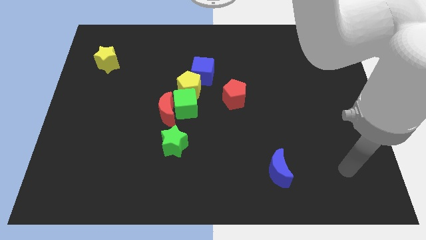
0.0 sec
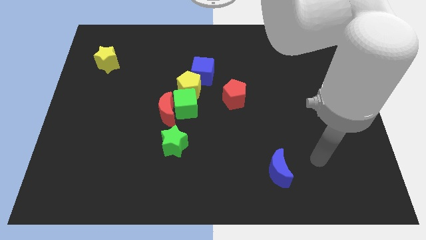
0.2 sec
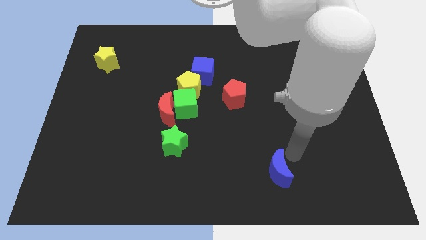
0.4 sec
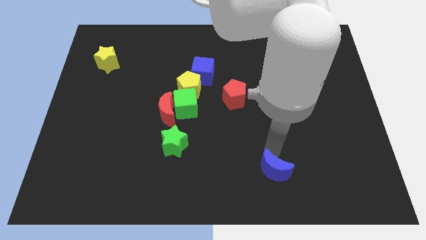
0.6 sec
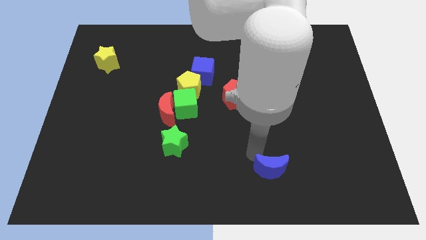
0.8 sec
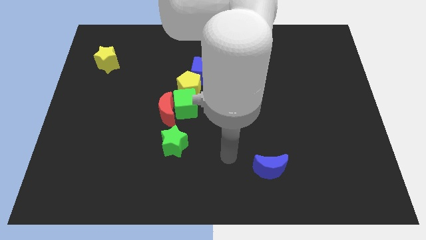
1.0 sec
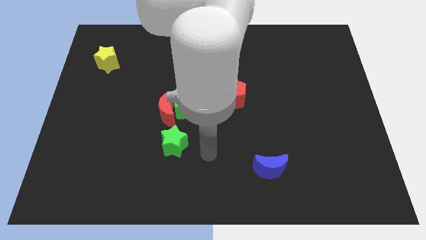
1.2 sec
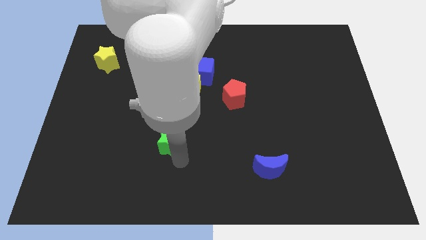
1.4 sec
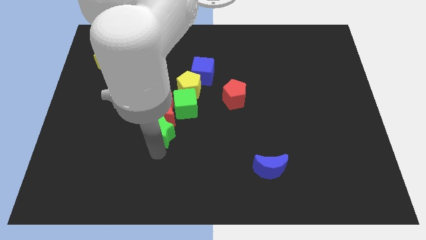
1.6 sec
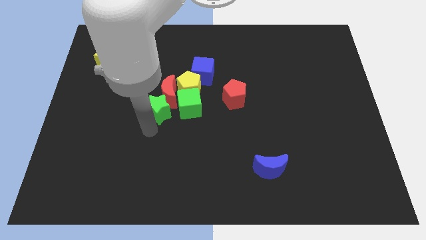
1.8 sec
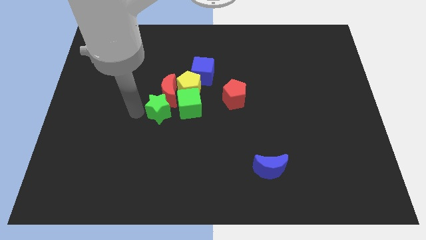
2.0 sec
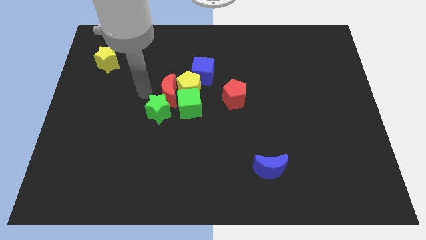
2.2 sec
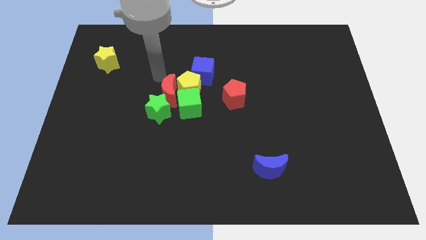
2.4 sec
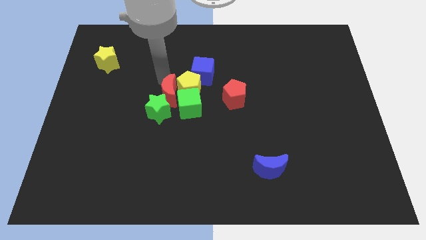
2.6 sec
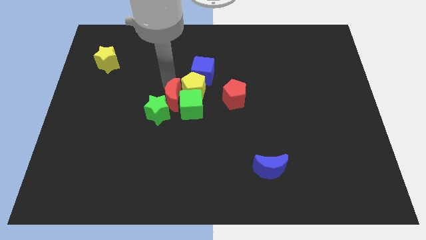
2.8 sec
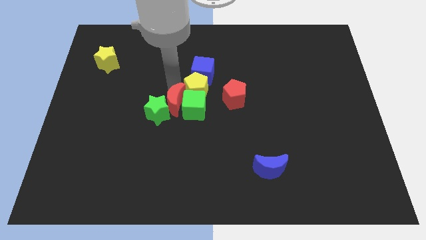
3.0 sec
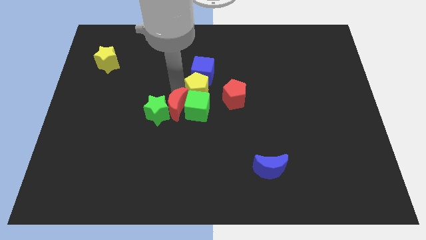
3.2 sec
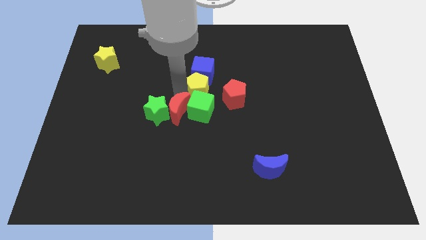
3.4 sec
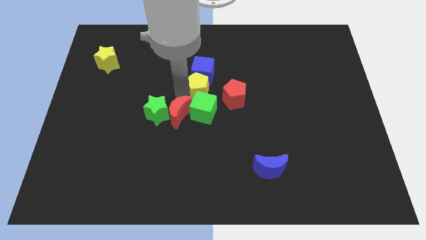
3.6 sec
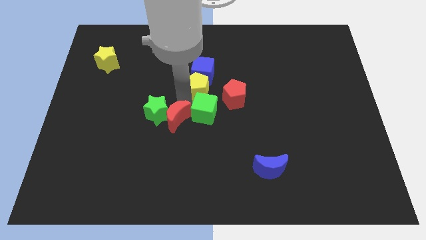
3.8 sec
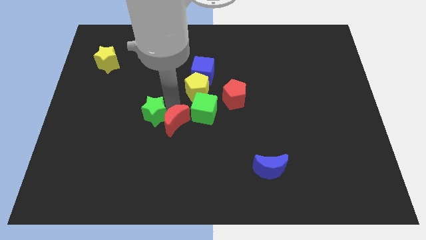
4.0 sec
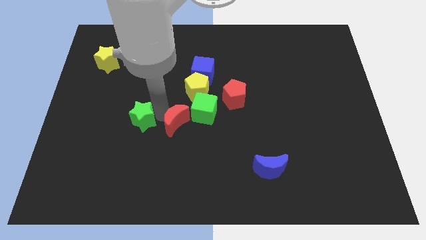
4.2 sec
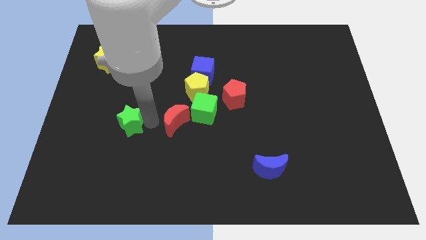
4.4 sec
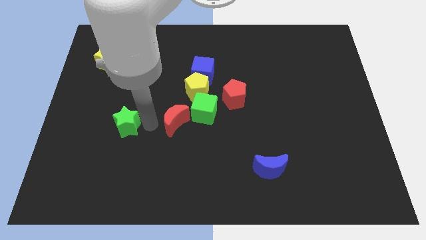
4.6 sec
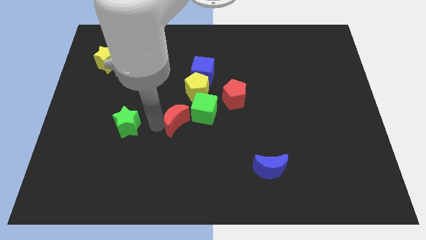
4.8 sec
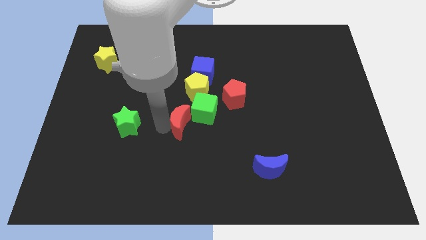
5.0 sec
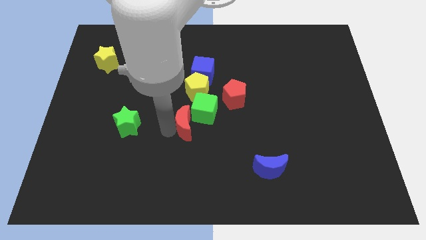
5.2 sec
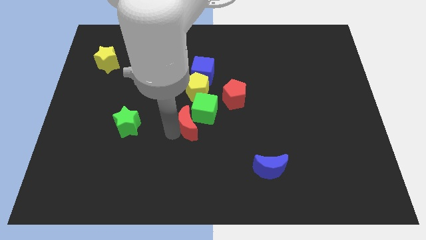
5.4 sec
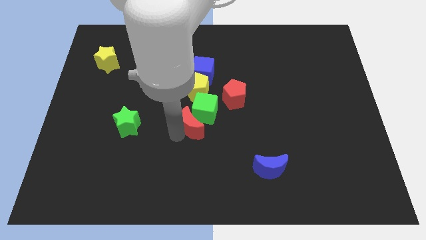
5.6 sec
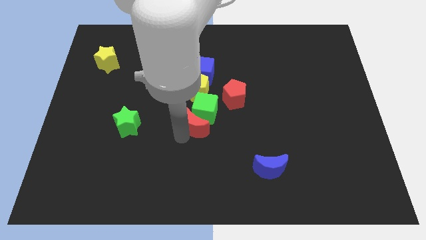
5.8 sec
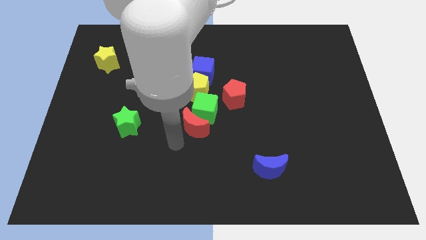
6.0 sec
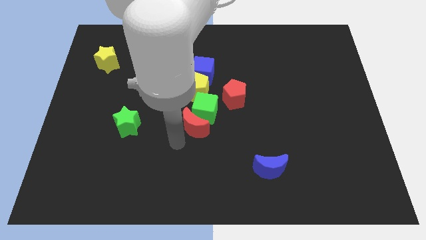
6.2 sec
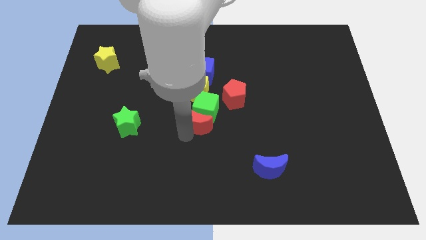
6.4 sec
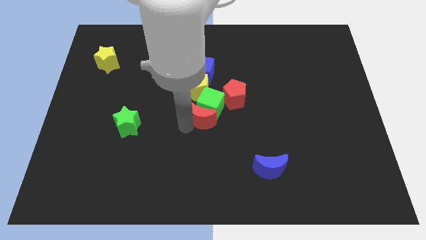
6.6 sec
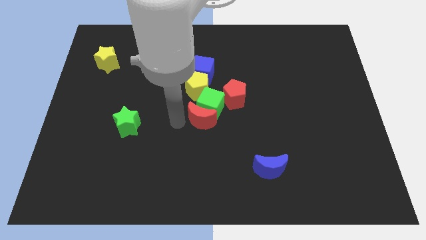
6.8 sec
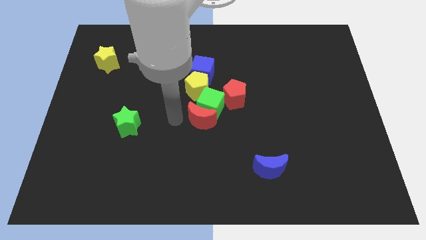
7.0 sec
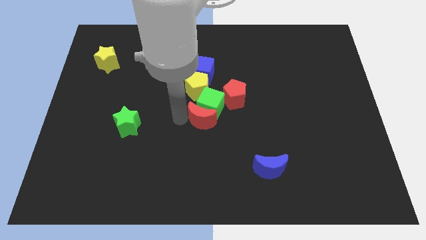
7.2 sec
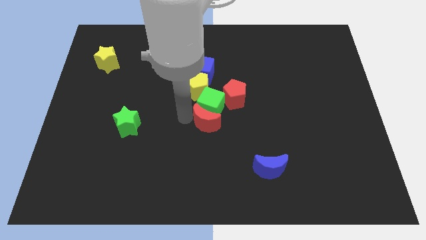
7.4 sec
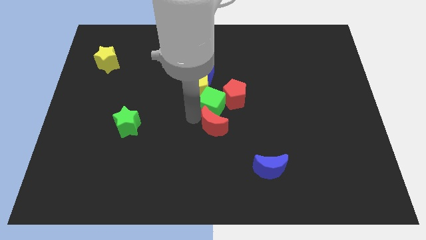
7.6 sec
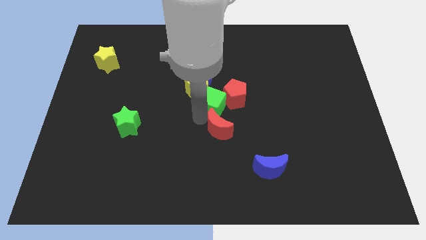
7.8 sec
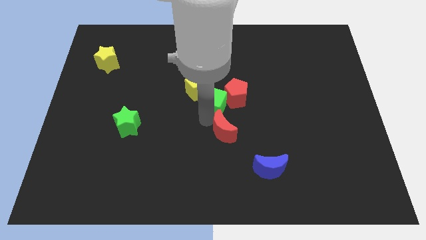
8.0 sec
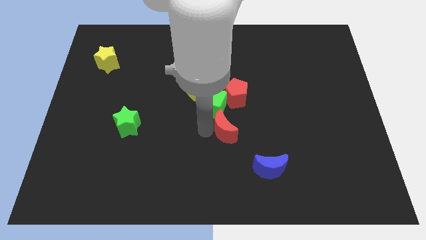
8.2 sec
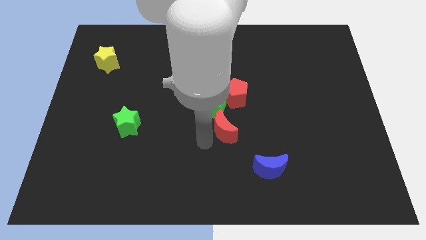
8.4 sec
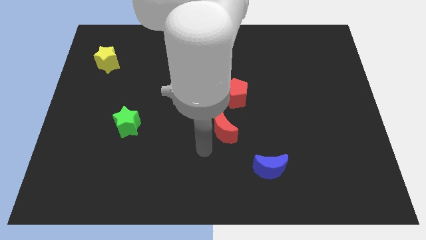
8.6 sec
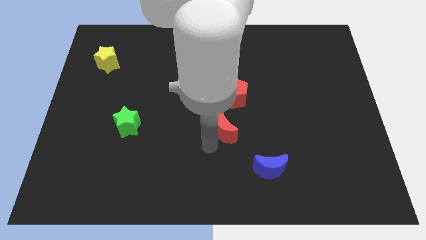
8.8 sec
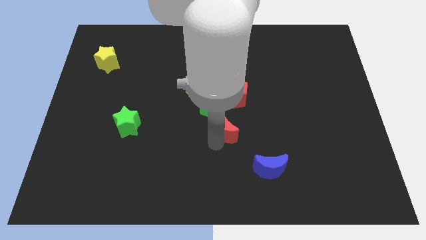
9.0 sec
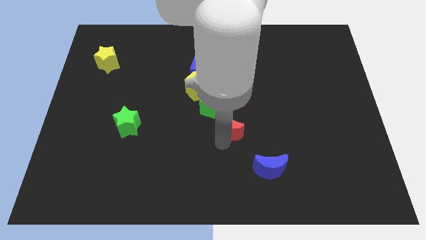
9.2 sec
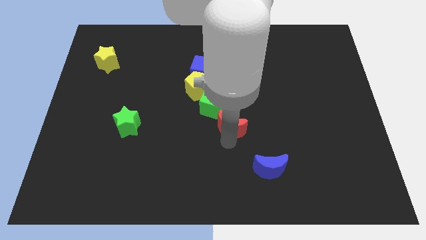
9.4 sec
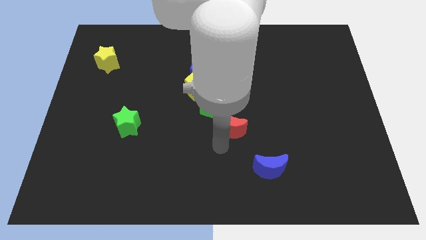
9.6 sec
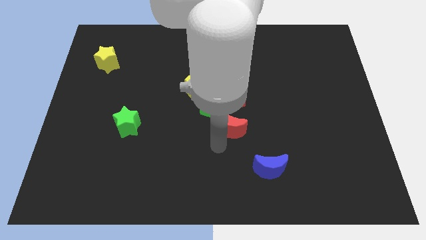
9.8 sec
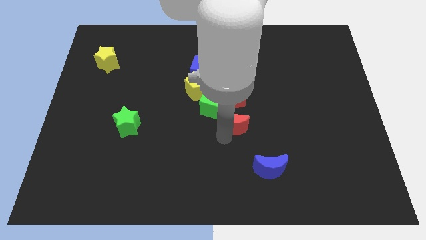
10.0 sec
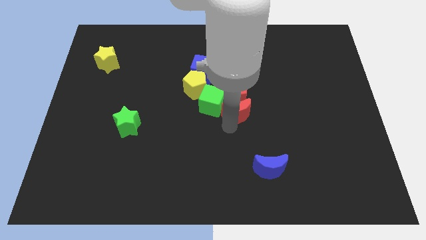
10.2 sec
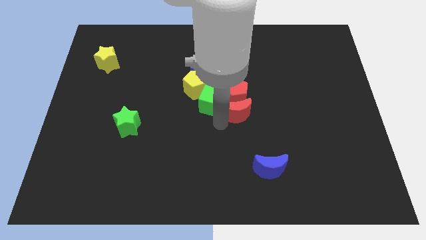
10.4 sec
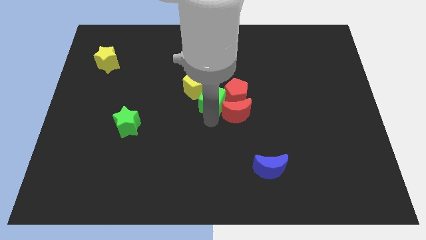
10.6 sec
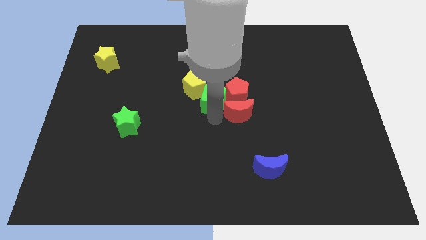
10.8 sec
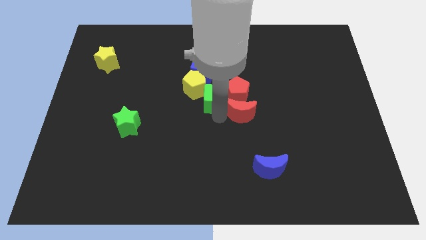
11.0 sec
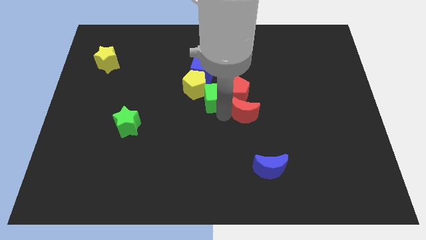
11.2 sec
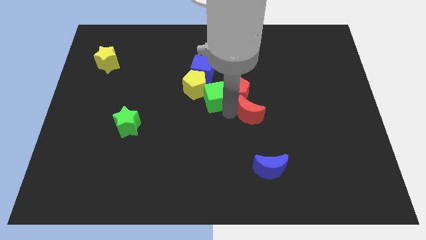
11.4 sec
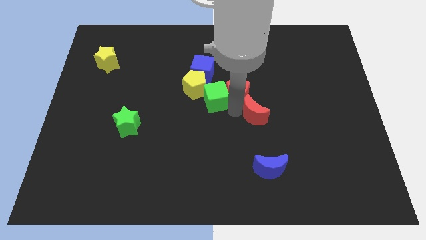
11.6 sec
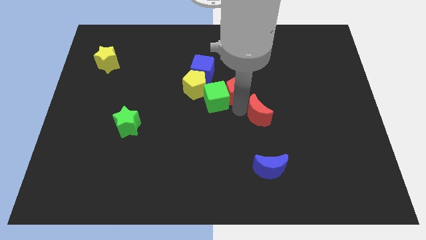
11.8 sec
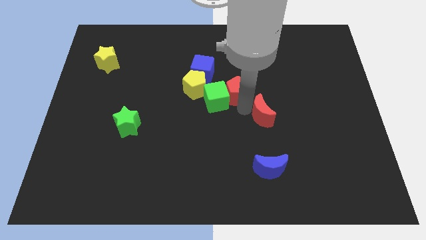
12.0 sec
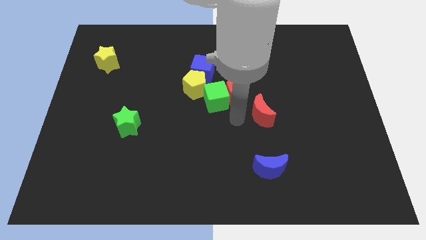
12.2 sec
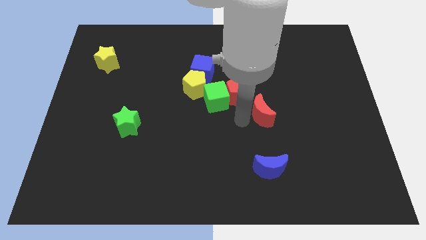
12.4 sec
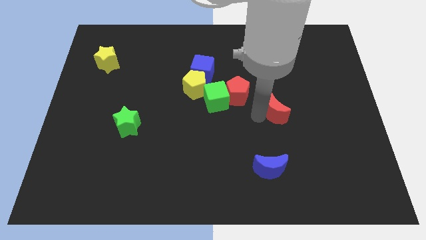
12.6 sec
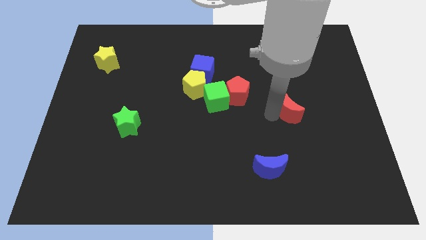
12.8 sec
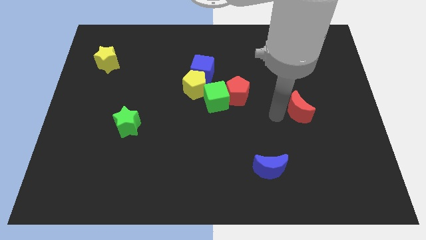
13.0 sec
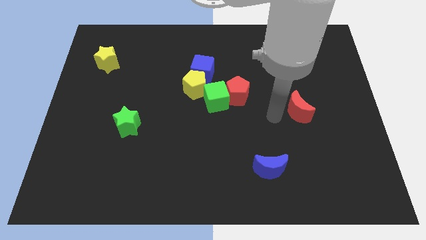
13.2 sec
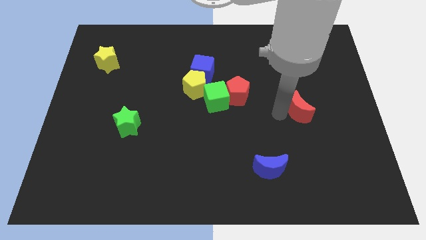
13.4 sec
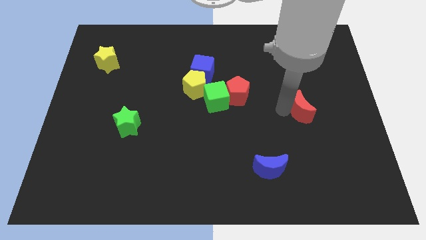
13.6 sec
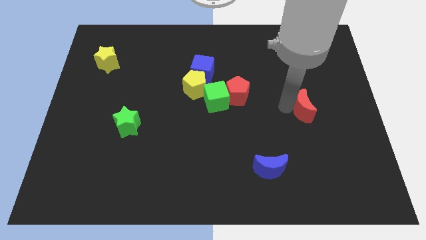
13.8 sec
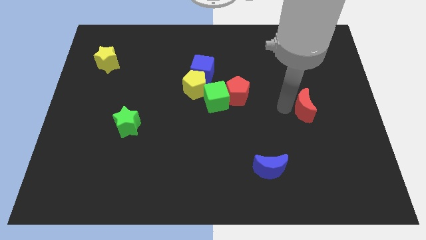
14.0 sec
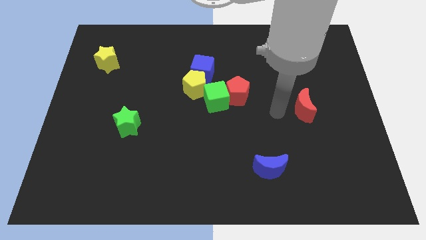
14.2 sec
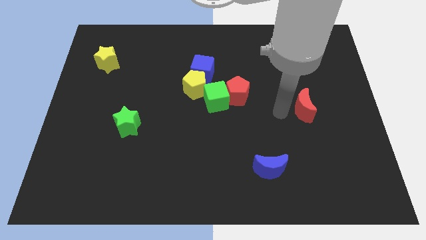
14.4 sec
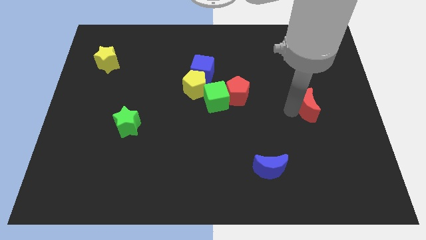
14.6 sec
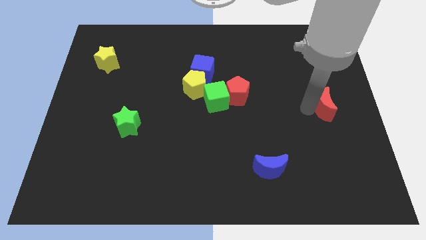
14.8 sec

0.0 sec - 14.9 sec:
put the red moon to the right side of the board
